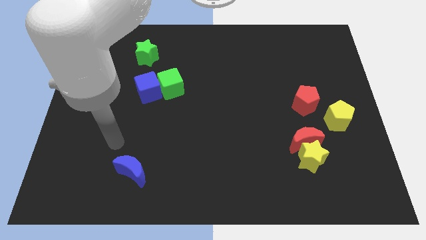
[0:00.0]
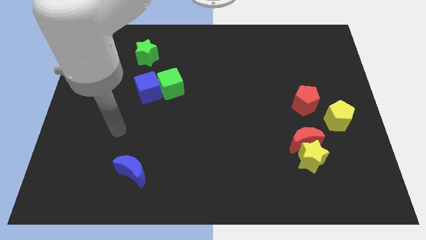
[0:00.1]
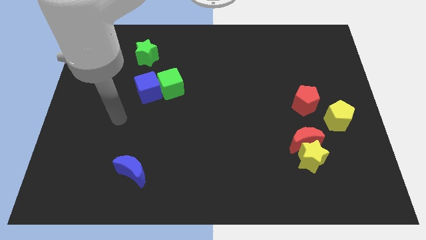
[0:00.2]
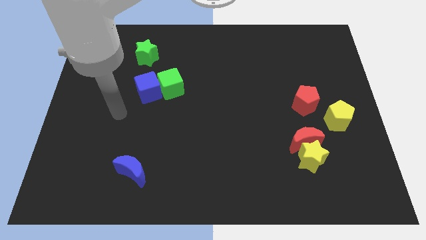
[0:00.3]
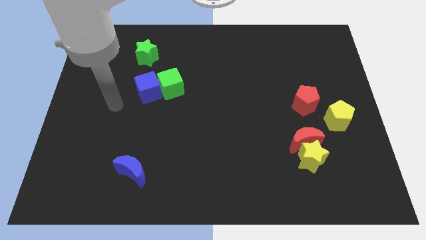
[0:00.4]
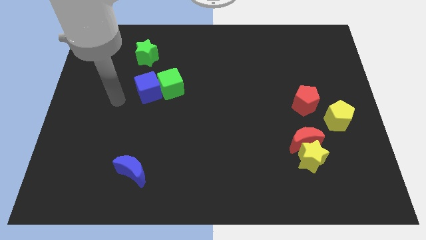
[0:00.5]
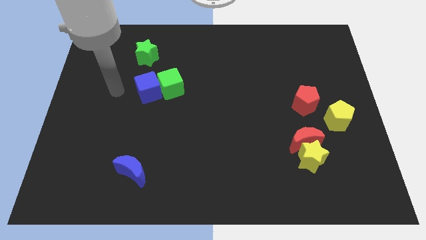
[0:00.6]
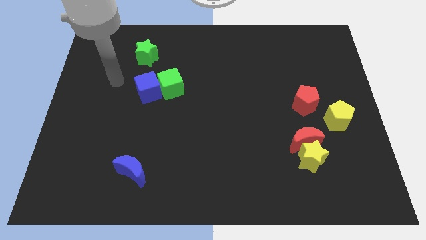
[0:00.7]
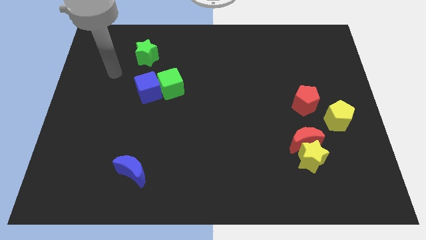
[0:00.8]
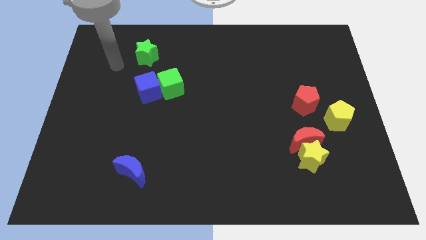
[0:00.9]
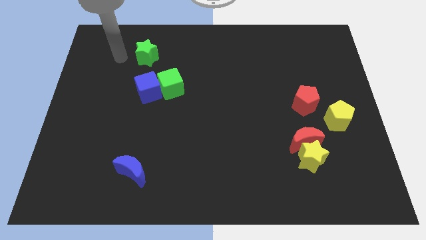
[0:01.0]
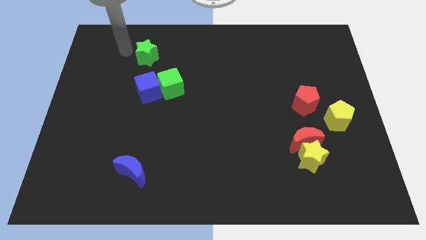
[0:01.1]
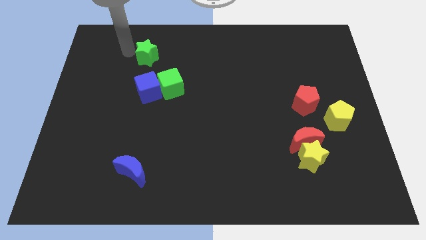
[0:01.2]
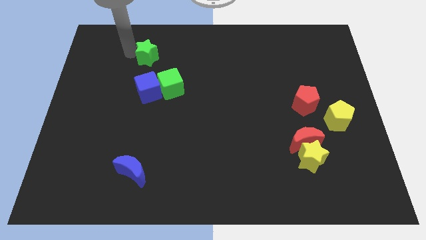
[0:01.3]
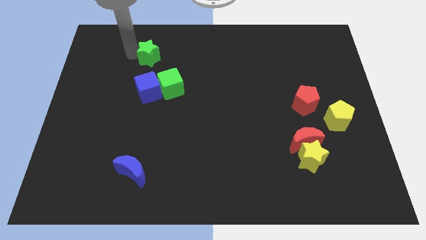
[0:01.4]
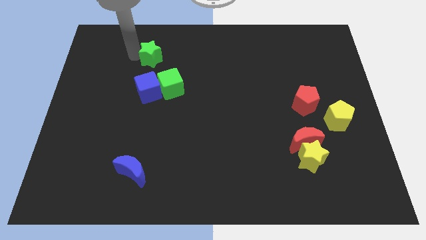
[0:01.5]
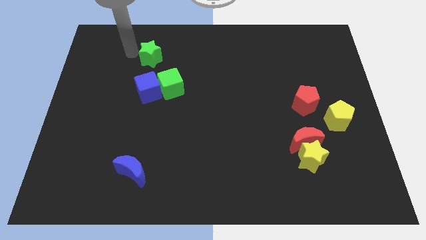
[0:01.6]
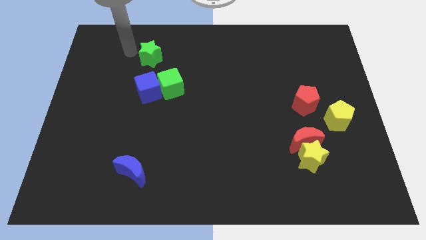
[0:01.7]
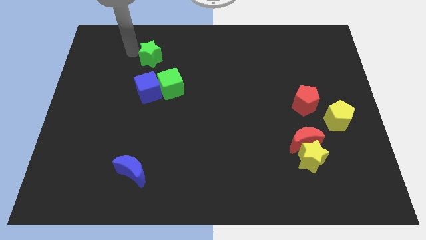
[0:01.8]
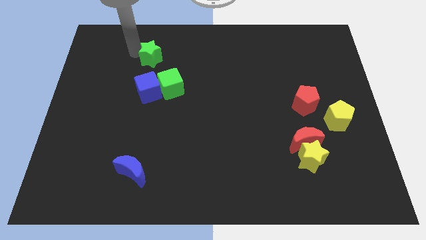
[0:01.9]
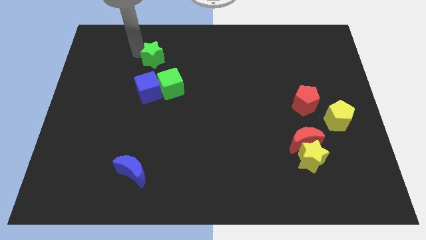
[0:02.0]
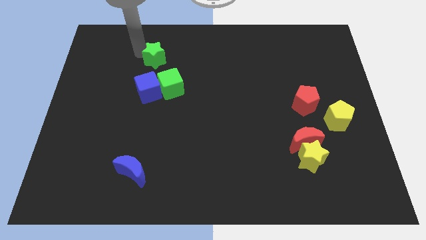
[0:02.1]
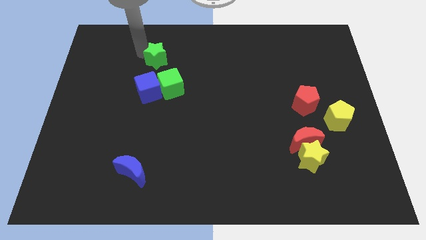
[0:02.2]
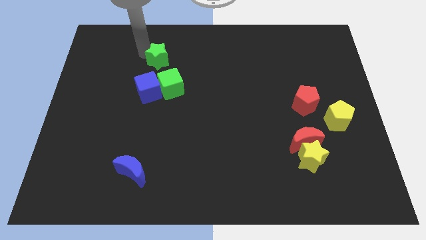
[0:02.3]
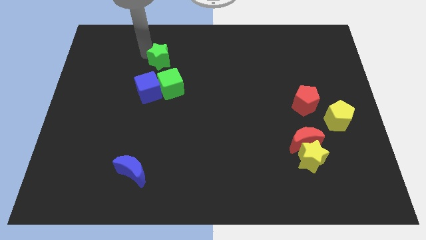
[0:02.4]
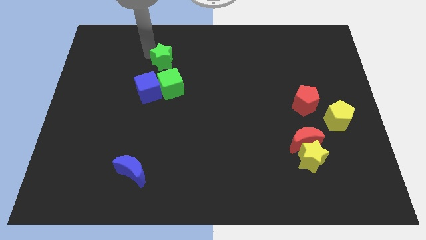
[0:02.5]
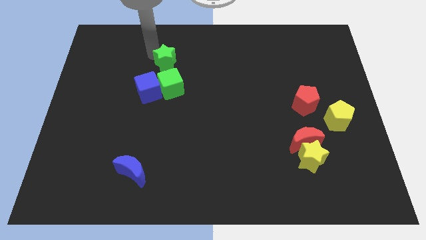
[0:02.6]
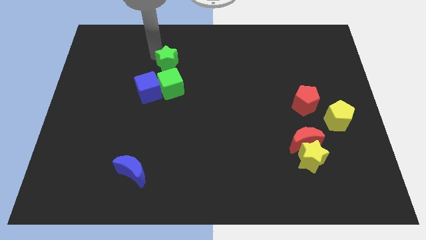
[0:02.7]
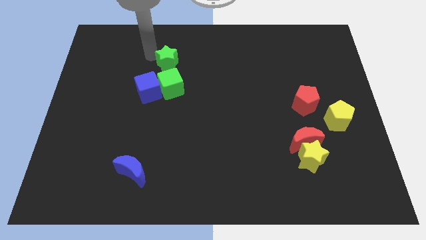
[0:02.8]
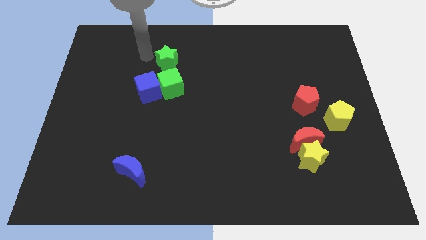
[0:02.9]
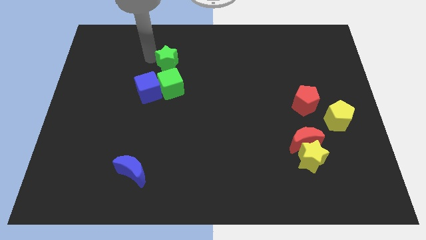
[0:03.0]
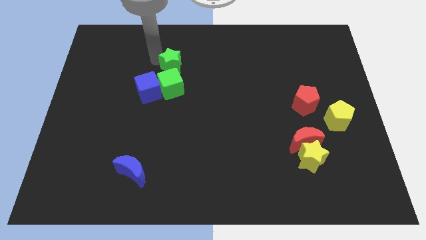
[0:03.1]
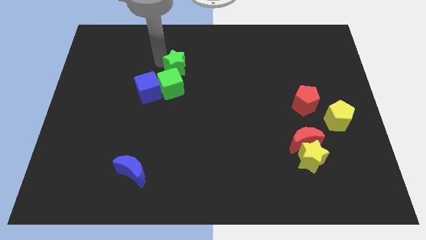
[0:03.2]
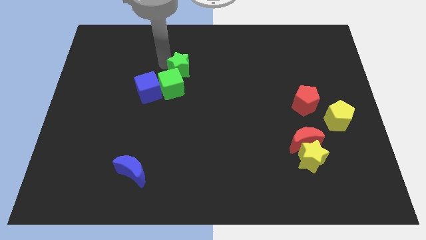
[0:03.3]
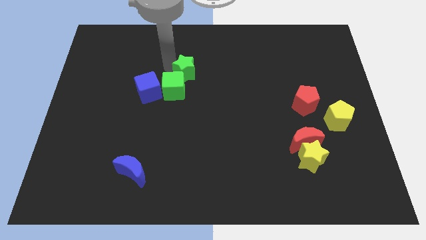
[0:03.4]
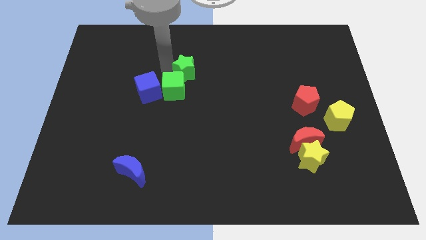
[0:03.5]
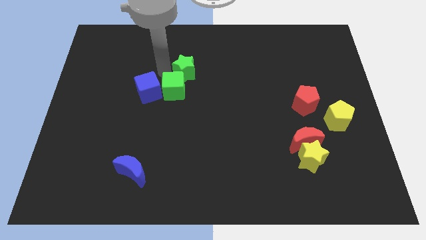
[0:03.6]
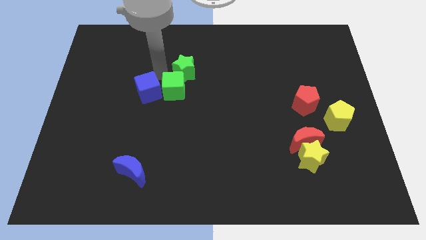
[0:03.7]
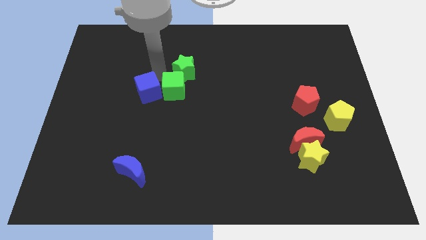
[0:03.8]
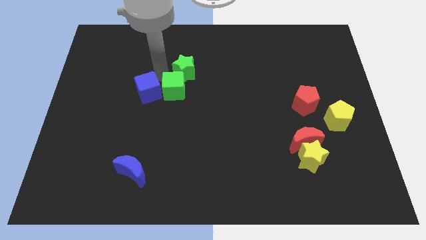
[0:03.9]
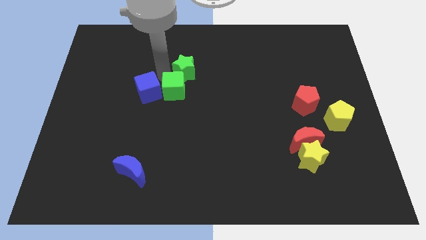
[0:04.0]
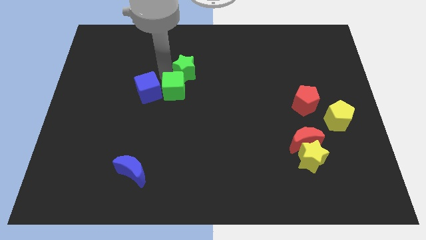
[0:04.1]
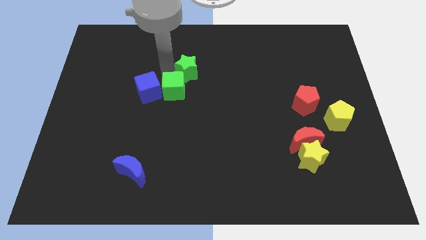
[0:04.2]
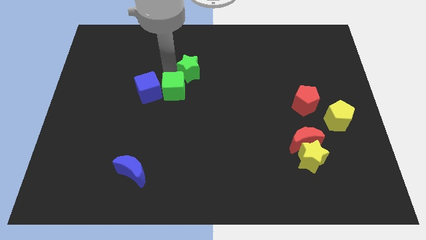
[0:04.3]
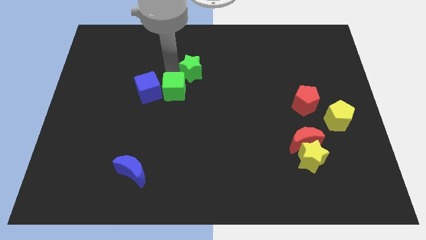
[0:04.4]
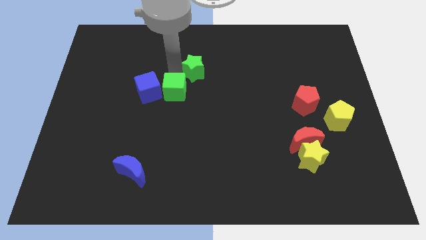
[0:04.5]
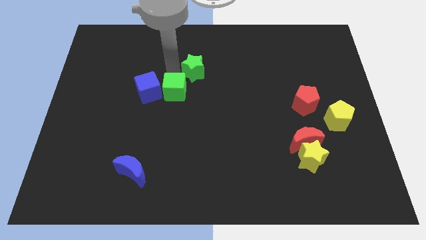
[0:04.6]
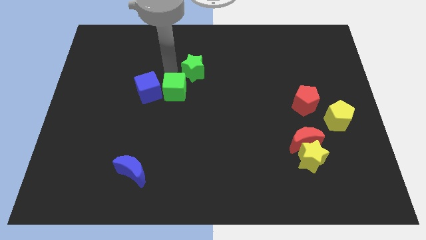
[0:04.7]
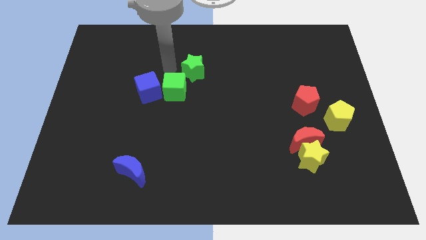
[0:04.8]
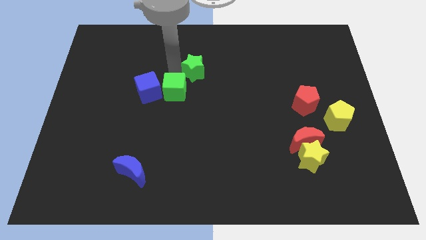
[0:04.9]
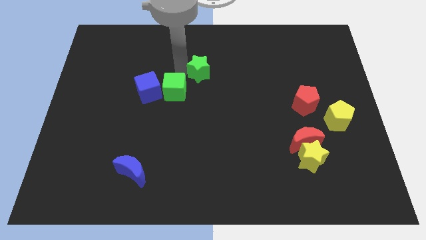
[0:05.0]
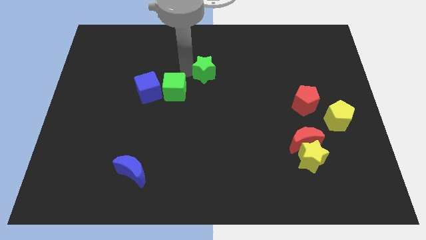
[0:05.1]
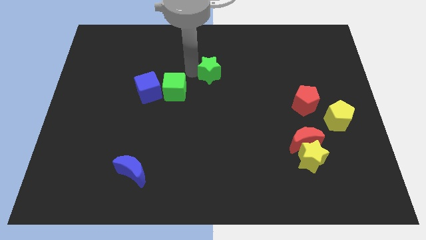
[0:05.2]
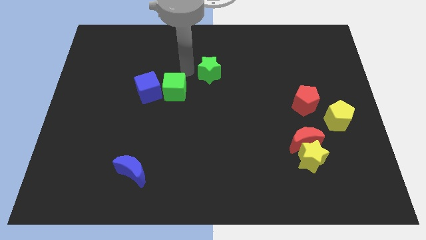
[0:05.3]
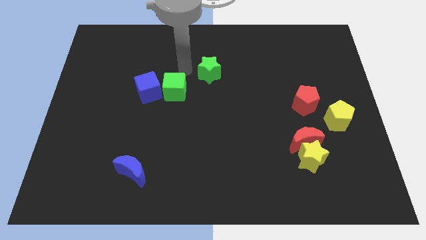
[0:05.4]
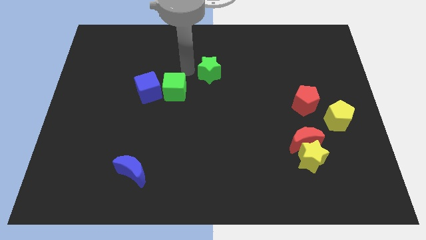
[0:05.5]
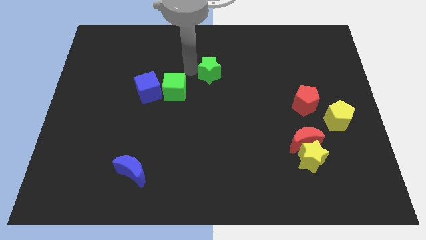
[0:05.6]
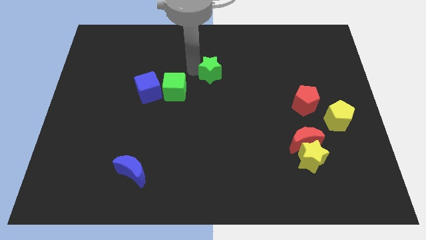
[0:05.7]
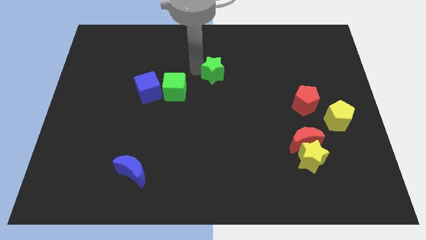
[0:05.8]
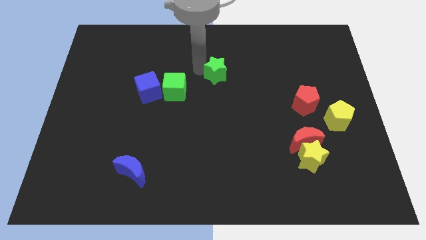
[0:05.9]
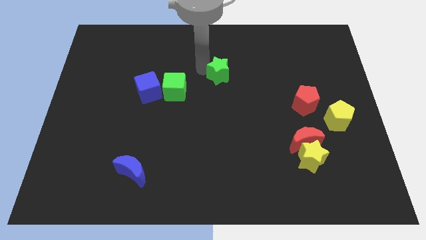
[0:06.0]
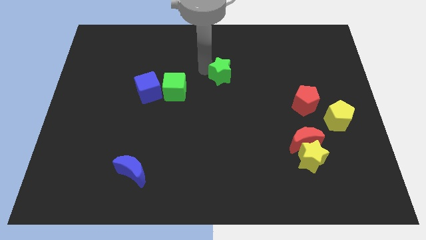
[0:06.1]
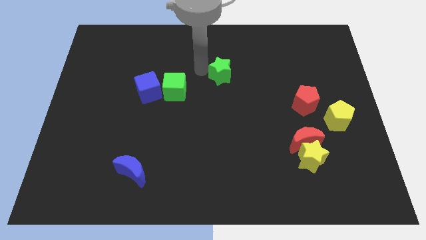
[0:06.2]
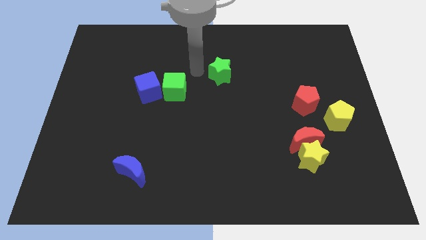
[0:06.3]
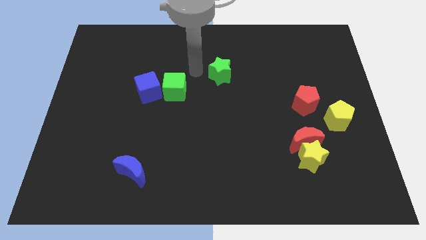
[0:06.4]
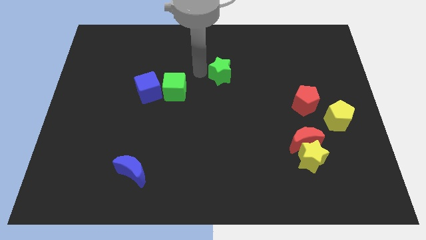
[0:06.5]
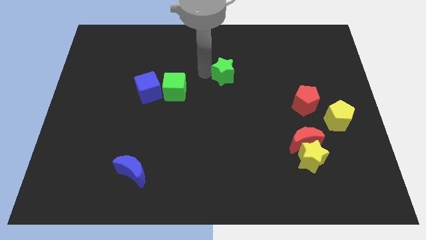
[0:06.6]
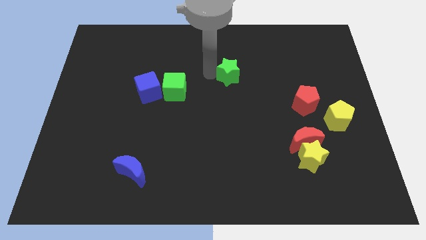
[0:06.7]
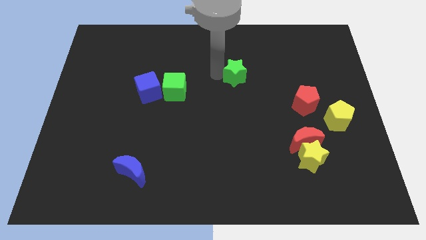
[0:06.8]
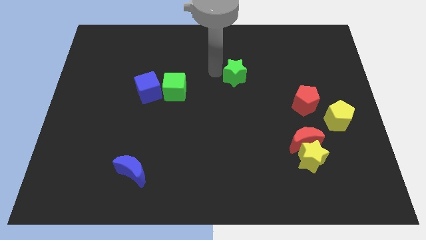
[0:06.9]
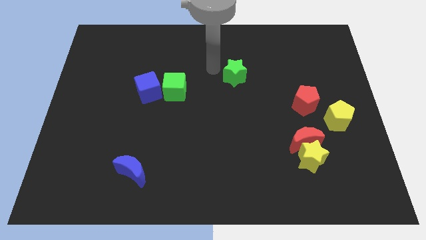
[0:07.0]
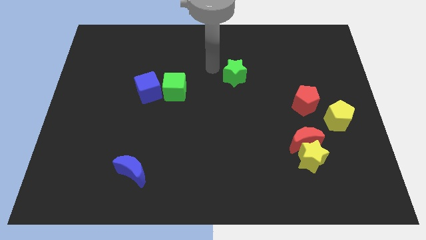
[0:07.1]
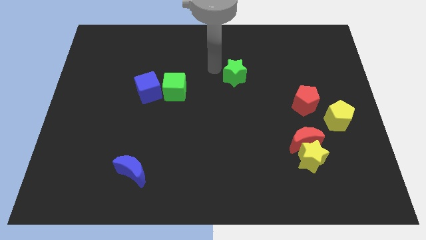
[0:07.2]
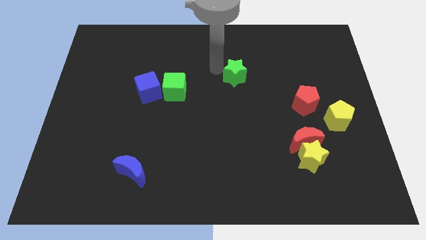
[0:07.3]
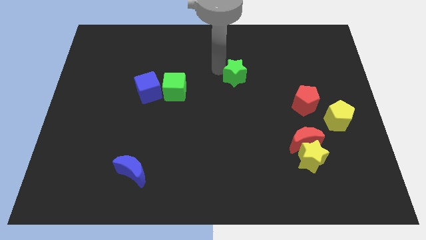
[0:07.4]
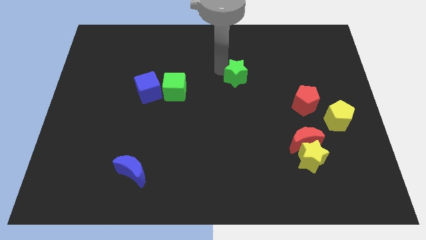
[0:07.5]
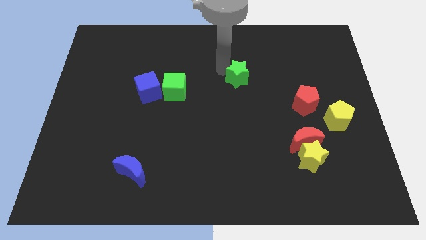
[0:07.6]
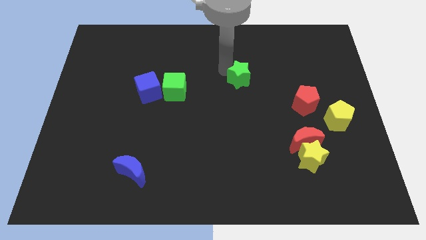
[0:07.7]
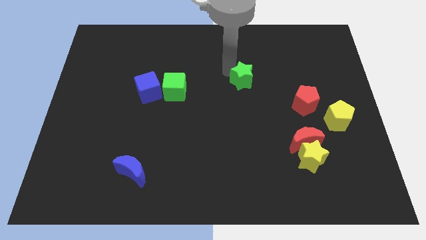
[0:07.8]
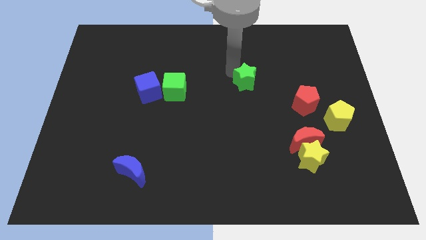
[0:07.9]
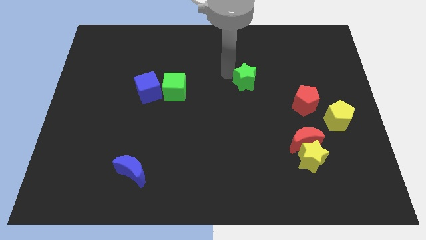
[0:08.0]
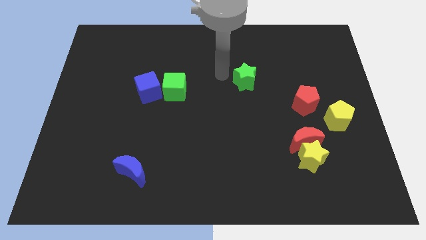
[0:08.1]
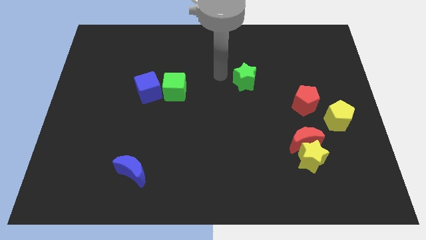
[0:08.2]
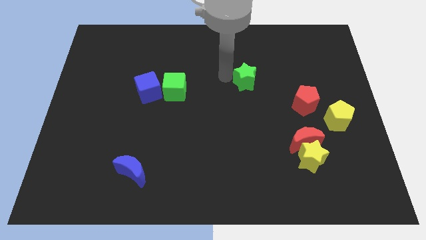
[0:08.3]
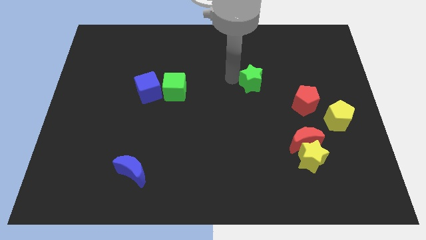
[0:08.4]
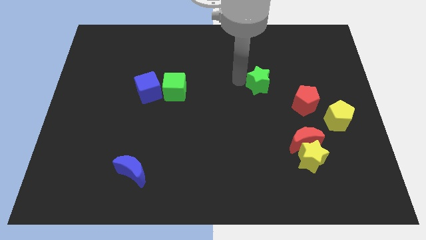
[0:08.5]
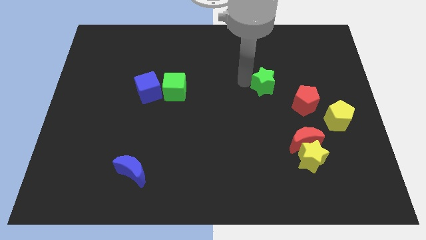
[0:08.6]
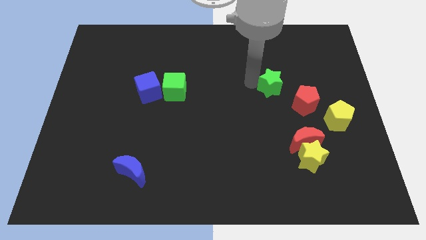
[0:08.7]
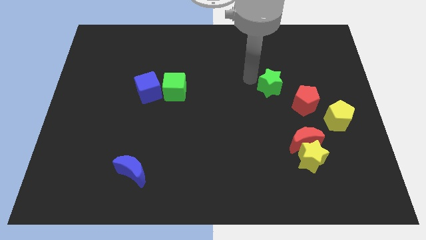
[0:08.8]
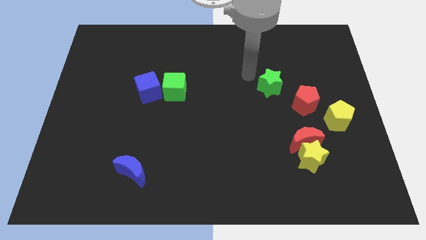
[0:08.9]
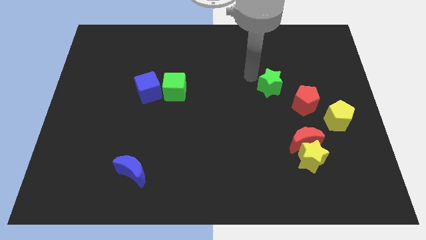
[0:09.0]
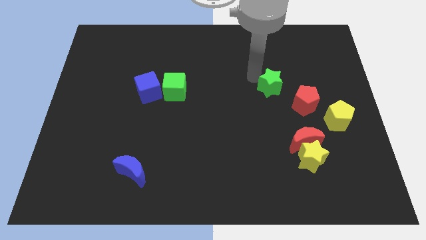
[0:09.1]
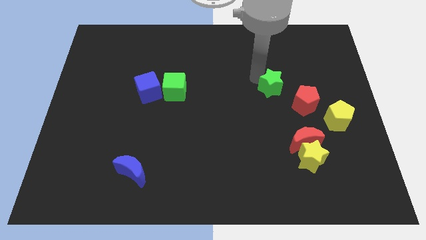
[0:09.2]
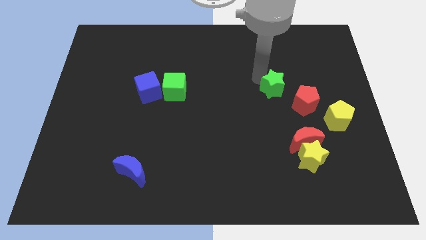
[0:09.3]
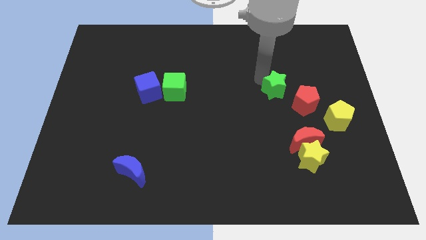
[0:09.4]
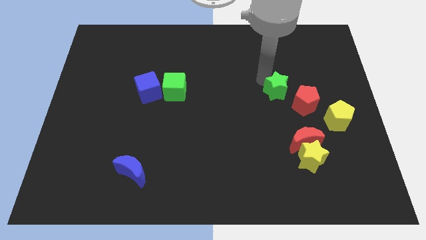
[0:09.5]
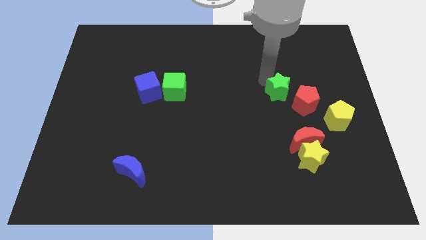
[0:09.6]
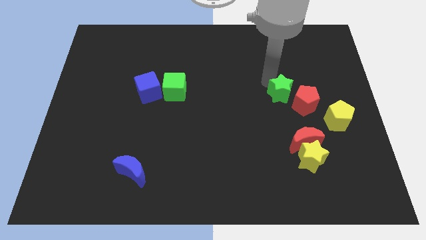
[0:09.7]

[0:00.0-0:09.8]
slide the green star to the red pentagon
